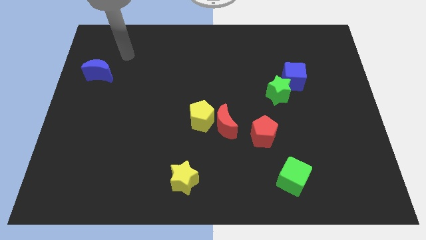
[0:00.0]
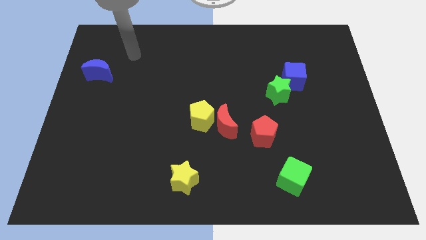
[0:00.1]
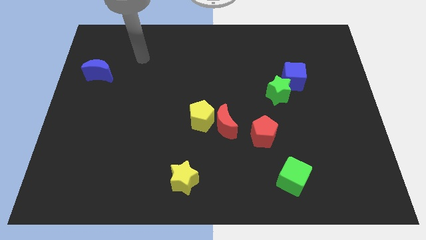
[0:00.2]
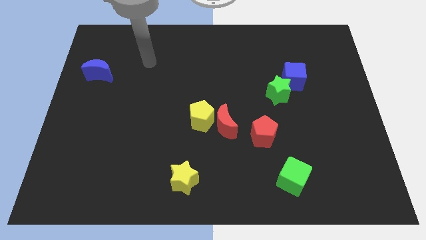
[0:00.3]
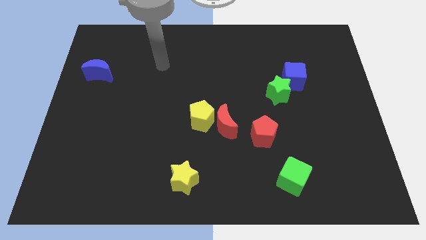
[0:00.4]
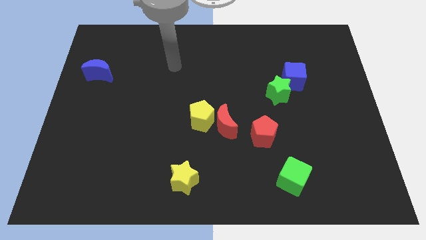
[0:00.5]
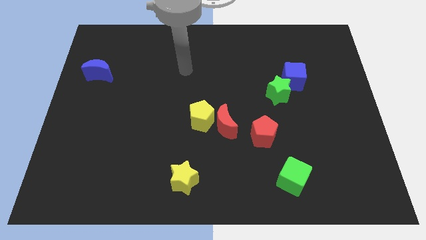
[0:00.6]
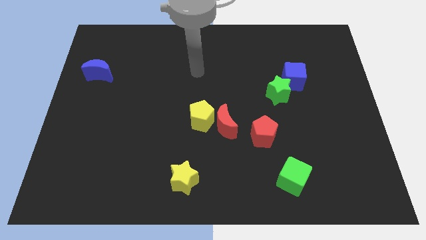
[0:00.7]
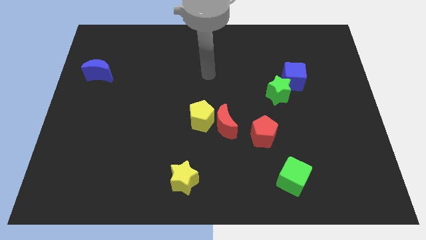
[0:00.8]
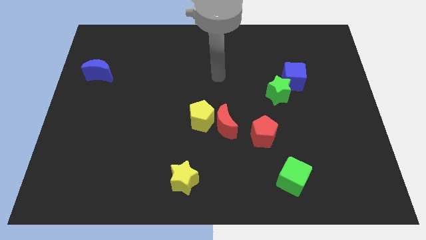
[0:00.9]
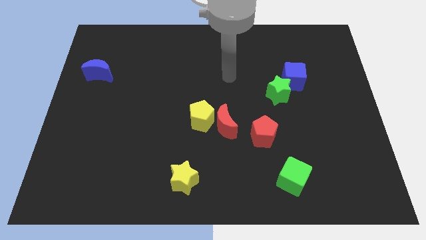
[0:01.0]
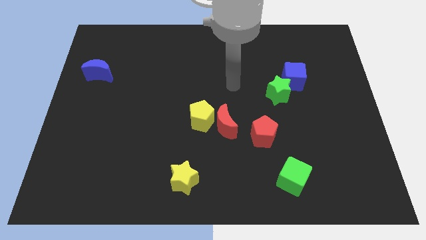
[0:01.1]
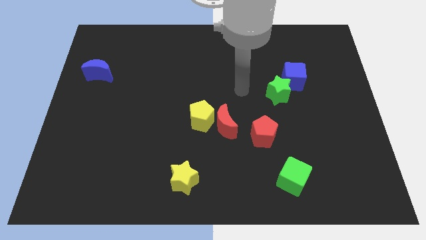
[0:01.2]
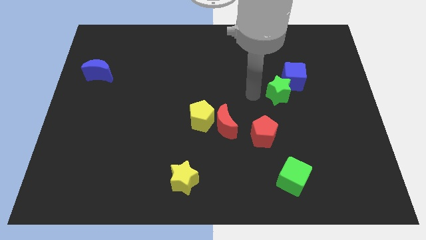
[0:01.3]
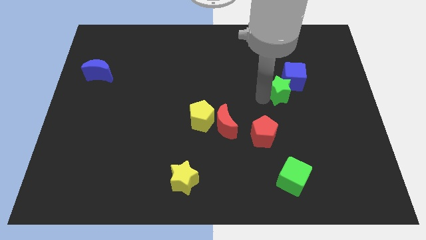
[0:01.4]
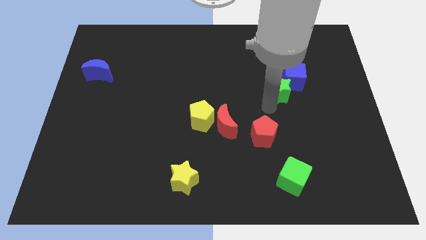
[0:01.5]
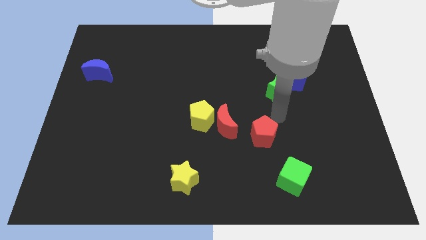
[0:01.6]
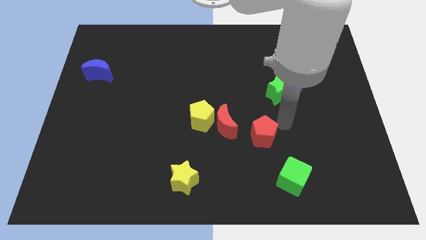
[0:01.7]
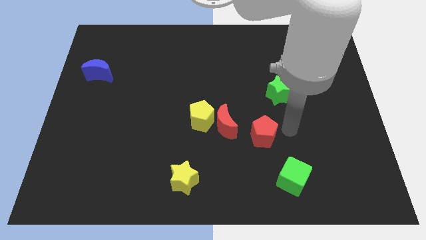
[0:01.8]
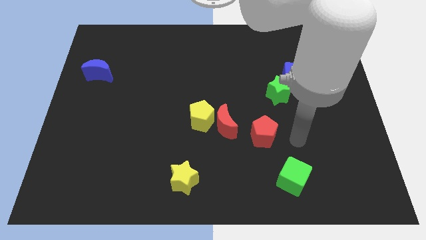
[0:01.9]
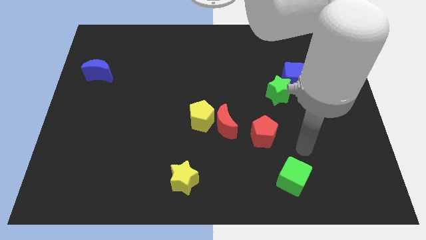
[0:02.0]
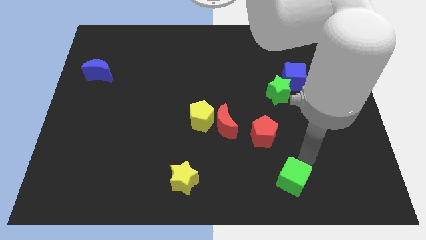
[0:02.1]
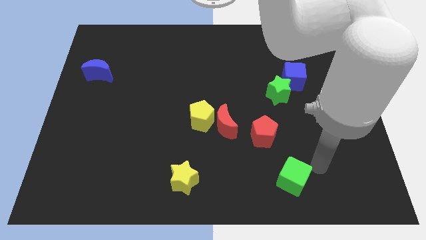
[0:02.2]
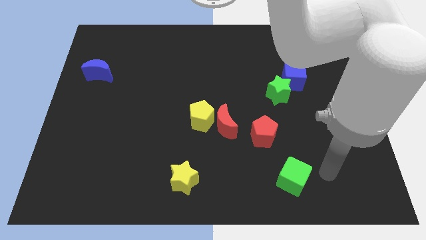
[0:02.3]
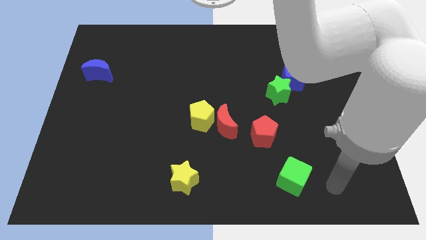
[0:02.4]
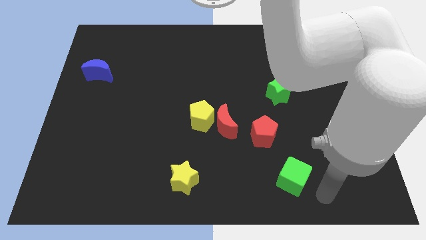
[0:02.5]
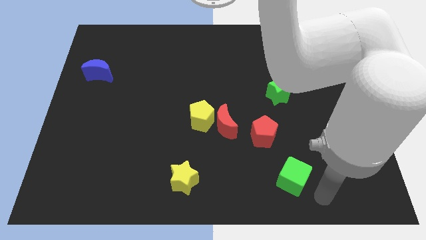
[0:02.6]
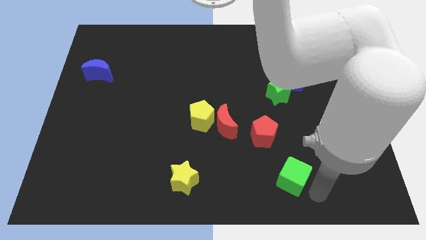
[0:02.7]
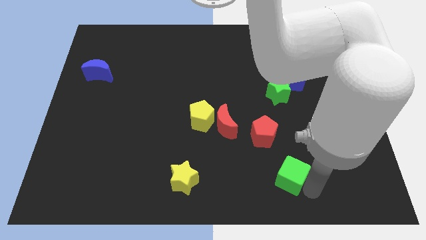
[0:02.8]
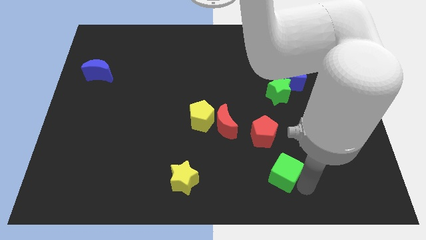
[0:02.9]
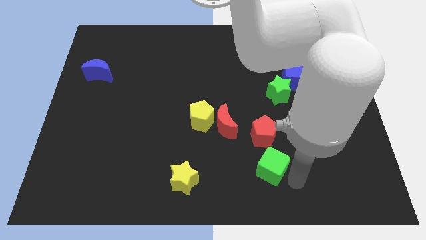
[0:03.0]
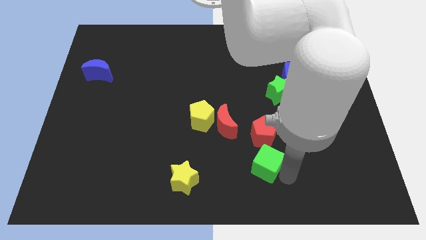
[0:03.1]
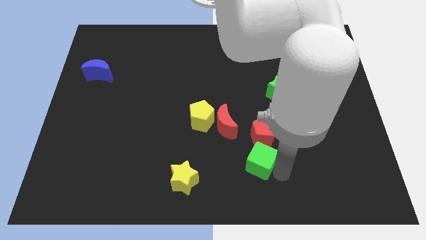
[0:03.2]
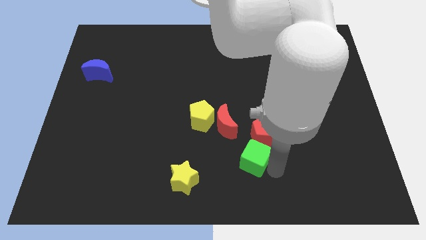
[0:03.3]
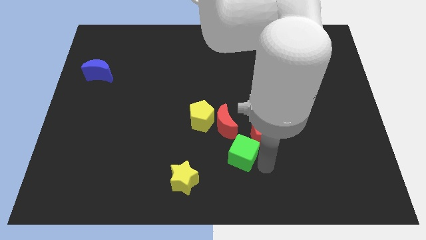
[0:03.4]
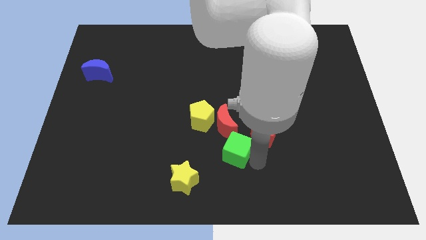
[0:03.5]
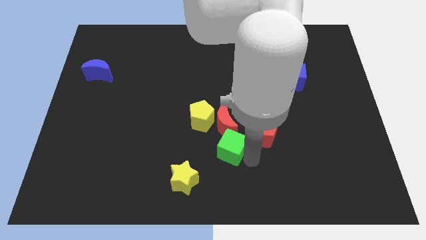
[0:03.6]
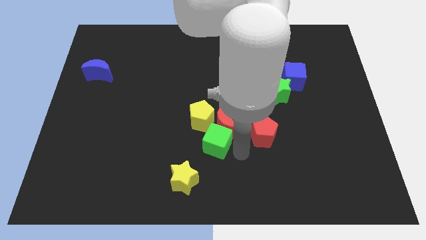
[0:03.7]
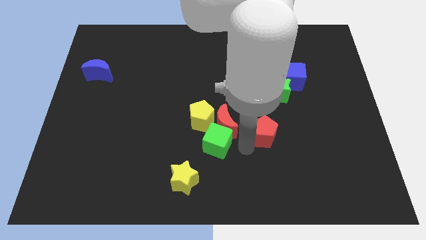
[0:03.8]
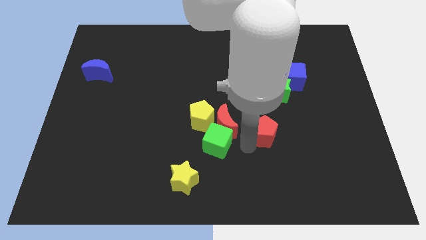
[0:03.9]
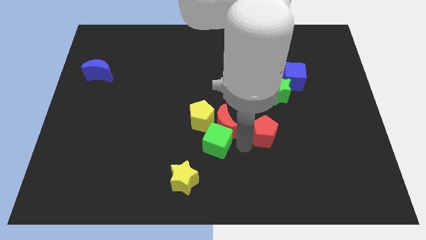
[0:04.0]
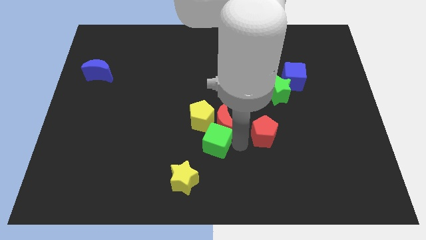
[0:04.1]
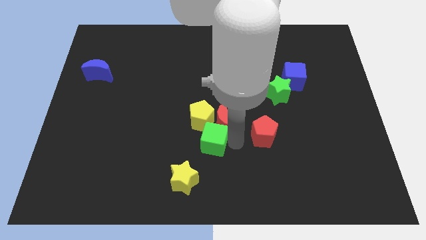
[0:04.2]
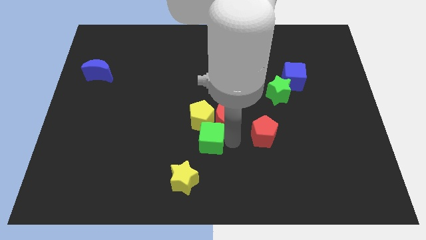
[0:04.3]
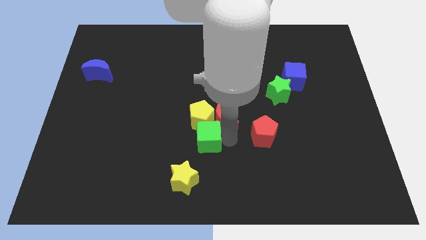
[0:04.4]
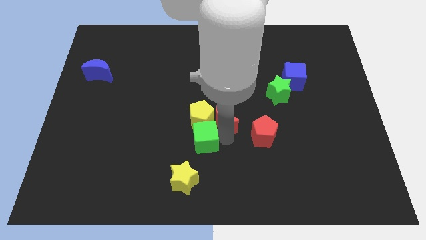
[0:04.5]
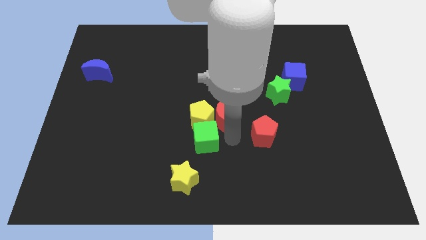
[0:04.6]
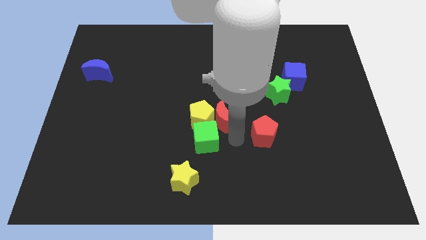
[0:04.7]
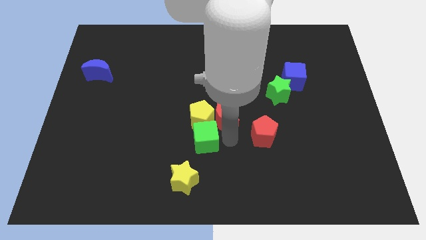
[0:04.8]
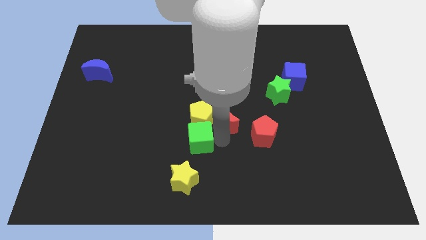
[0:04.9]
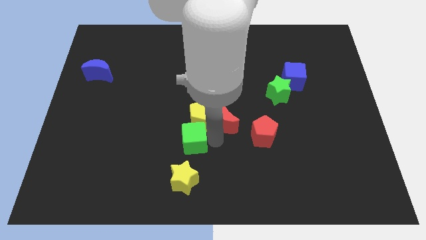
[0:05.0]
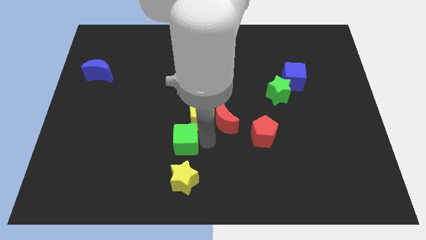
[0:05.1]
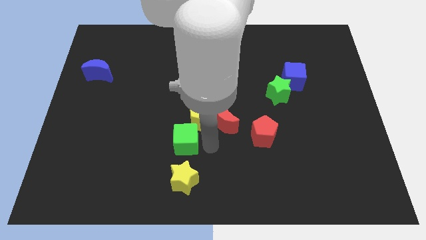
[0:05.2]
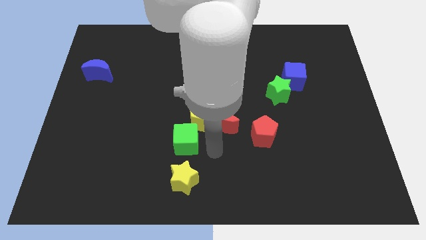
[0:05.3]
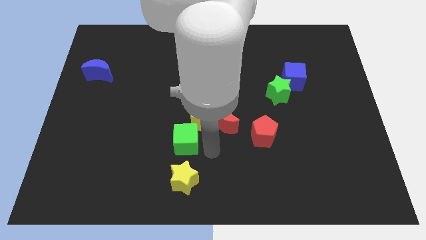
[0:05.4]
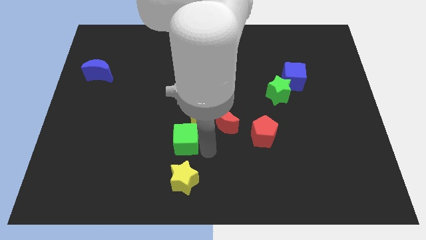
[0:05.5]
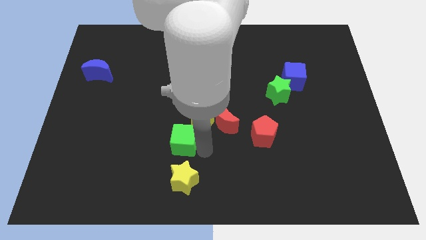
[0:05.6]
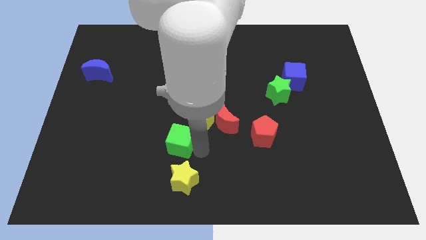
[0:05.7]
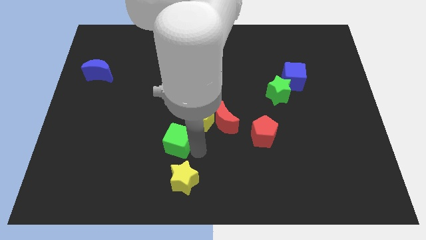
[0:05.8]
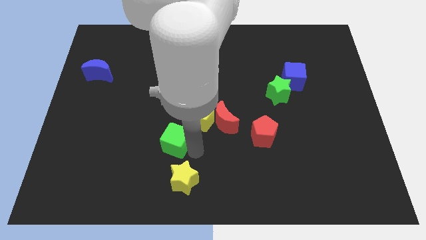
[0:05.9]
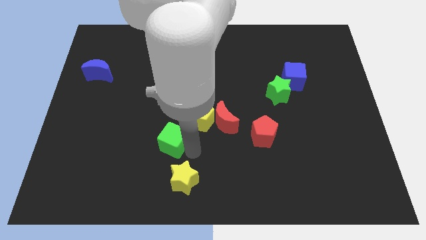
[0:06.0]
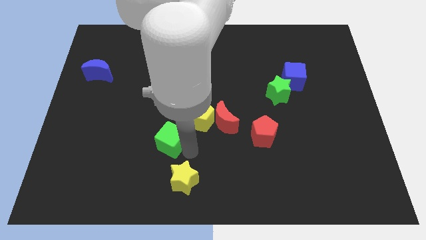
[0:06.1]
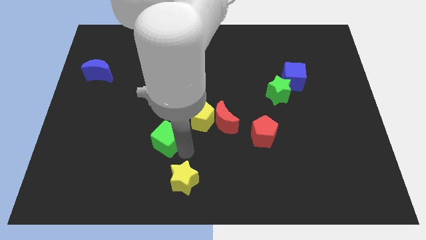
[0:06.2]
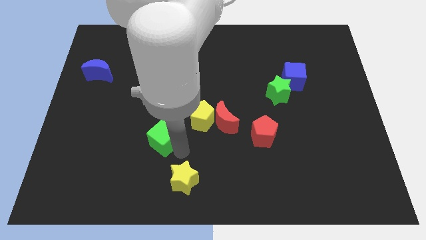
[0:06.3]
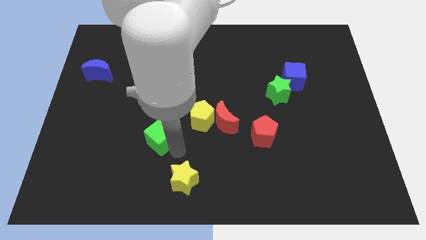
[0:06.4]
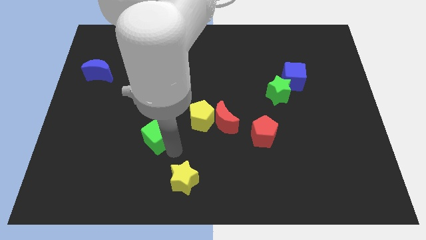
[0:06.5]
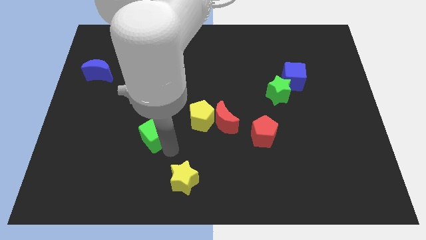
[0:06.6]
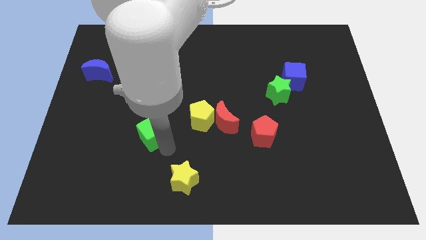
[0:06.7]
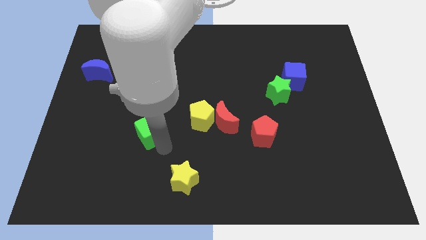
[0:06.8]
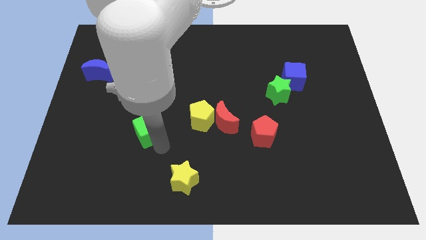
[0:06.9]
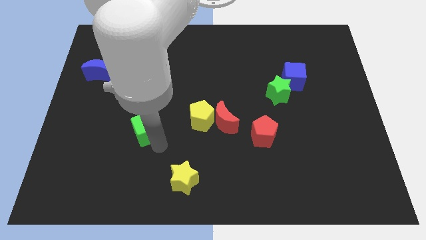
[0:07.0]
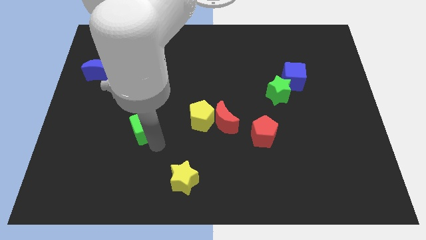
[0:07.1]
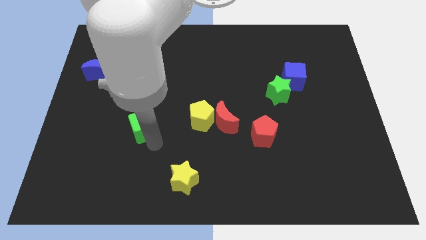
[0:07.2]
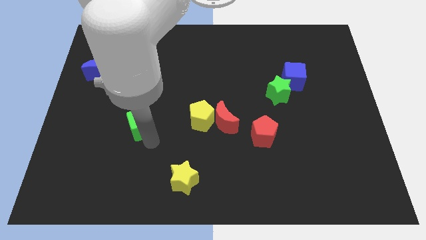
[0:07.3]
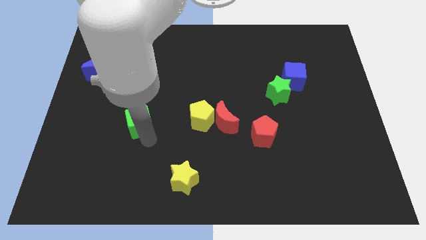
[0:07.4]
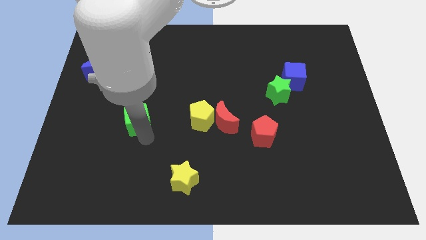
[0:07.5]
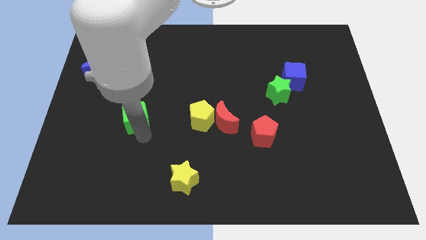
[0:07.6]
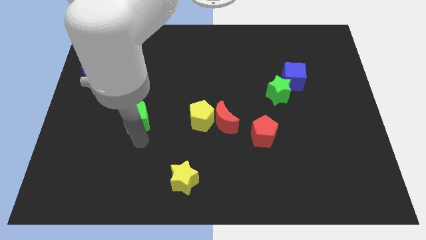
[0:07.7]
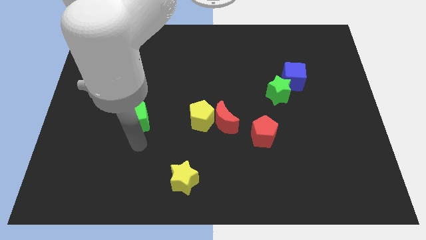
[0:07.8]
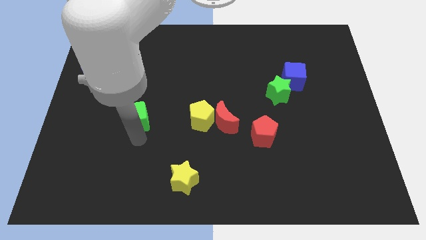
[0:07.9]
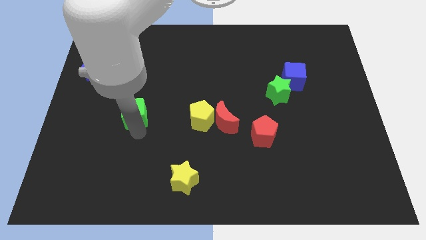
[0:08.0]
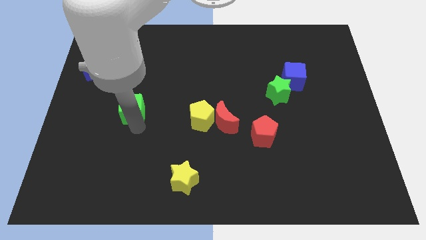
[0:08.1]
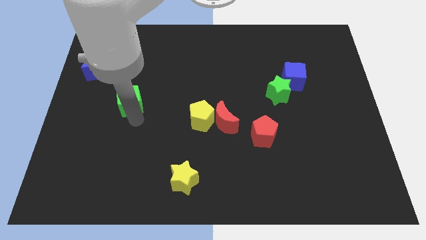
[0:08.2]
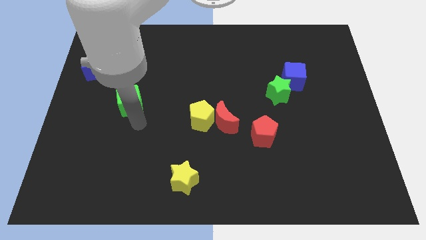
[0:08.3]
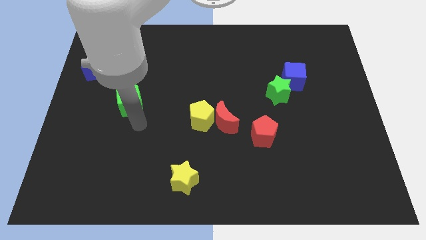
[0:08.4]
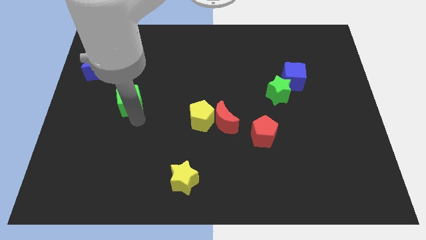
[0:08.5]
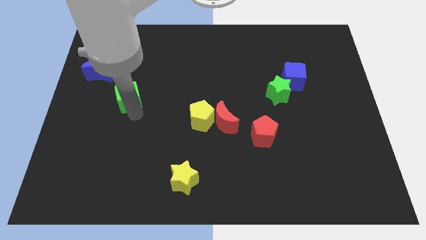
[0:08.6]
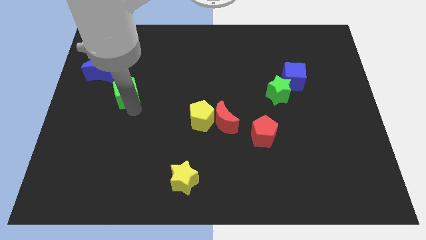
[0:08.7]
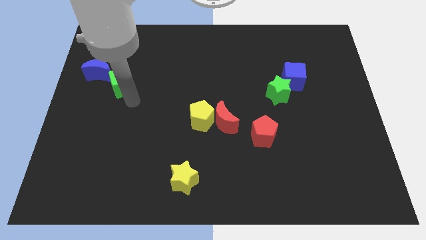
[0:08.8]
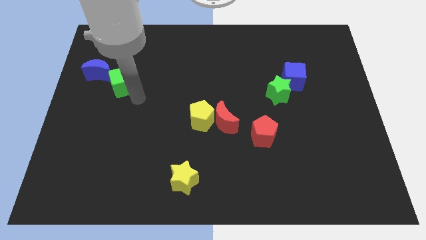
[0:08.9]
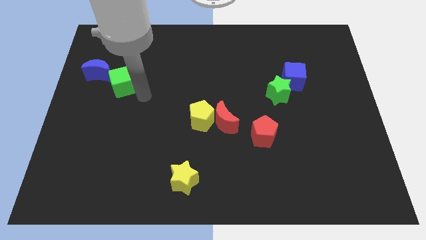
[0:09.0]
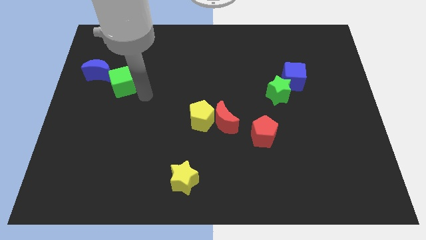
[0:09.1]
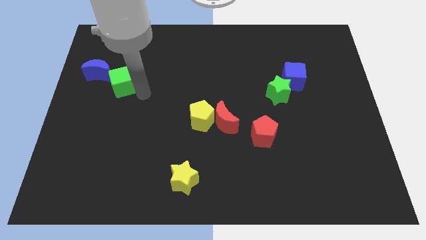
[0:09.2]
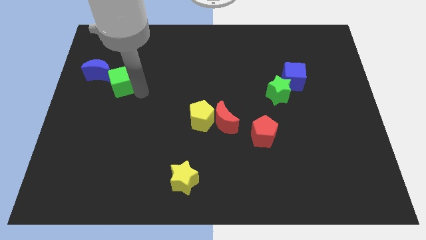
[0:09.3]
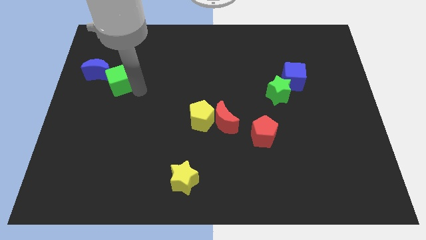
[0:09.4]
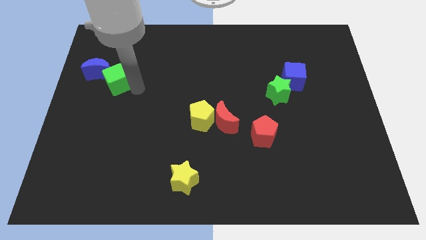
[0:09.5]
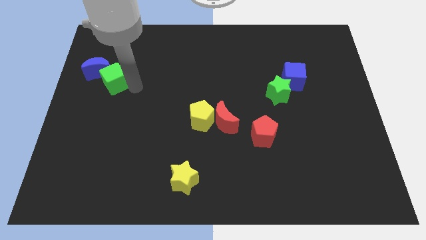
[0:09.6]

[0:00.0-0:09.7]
put the green cube to the blue moon
